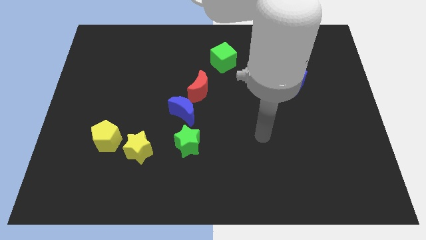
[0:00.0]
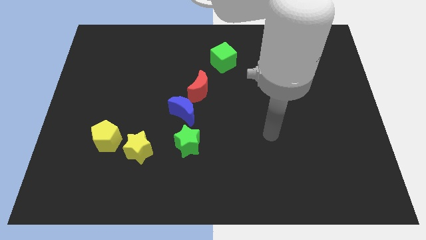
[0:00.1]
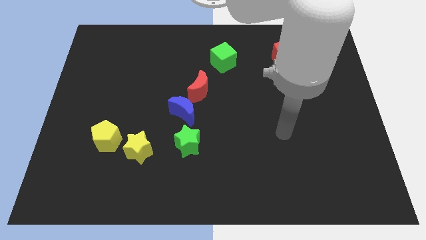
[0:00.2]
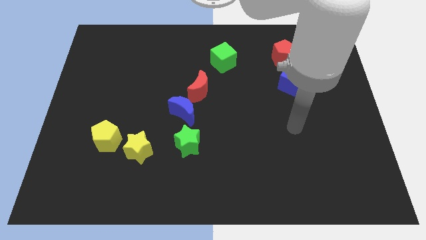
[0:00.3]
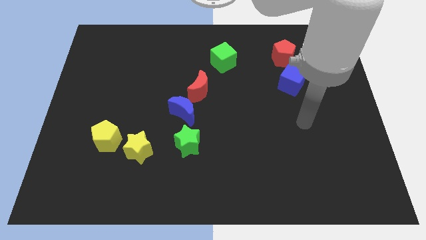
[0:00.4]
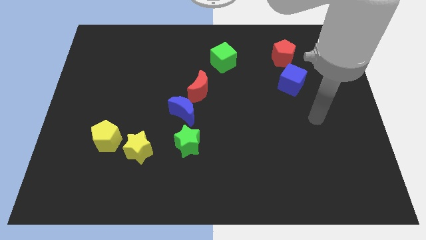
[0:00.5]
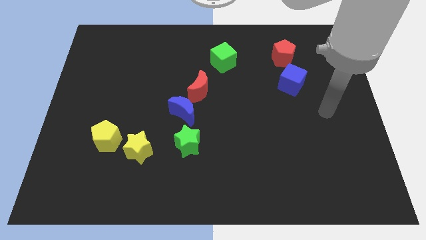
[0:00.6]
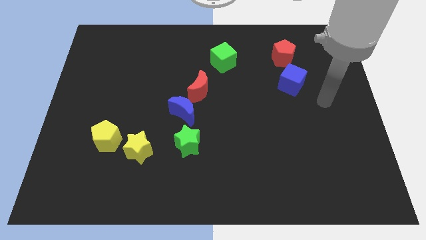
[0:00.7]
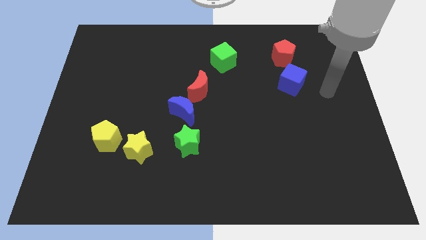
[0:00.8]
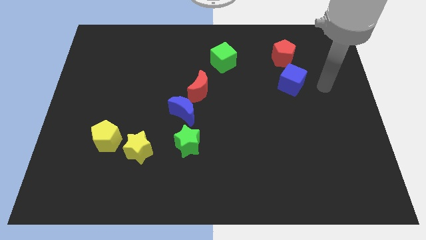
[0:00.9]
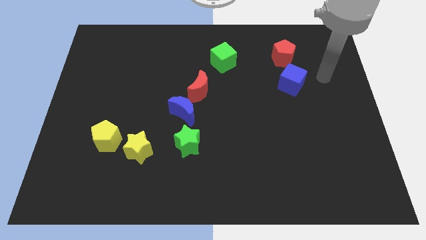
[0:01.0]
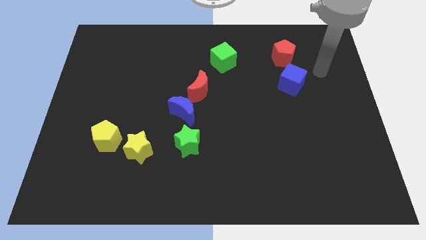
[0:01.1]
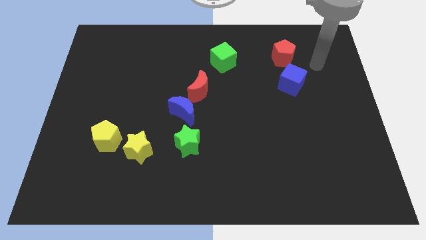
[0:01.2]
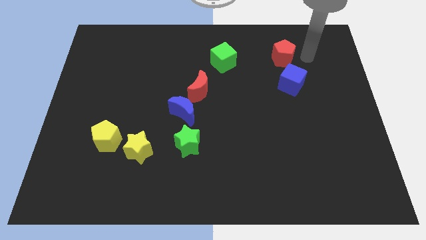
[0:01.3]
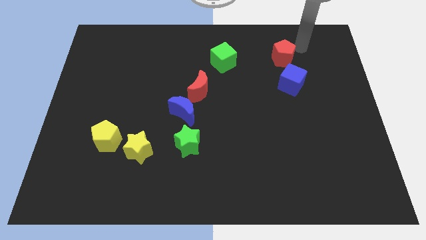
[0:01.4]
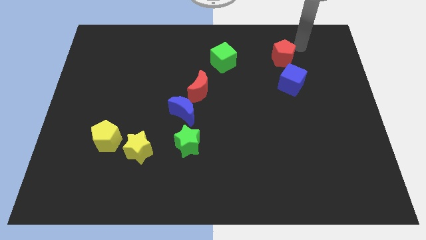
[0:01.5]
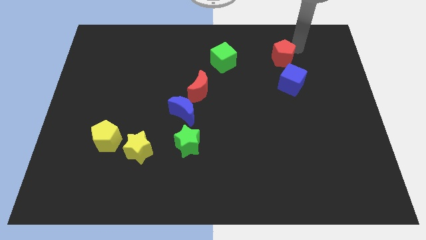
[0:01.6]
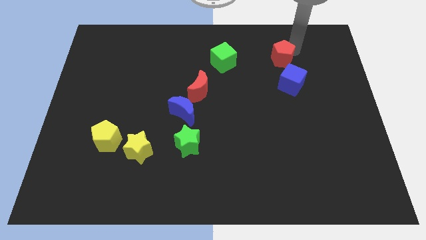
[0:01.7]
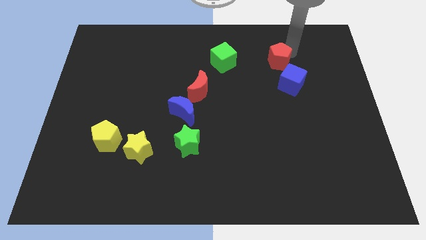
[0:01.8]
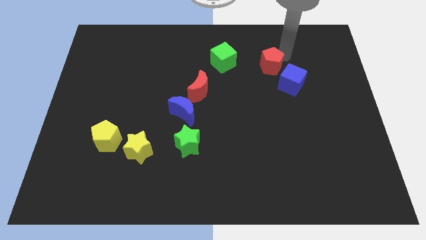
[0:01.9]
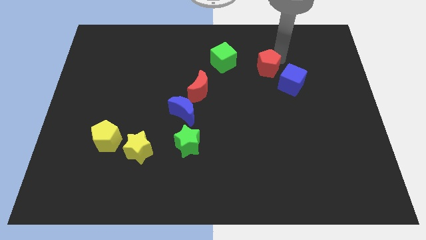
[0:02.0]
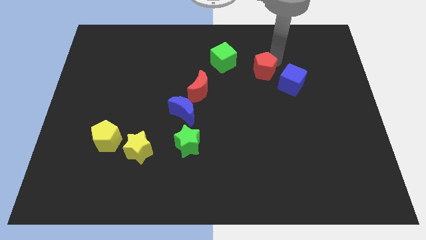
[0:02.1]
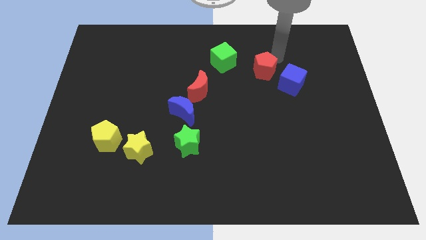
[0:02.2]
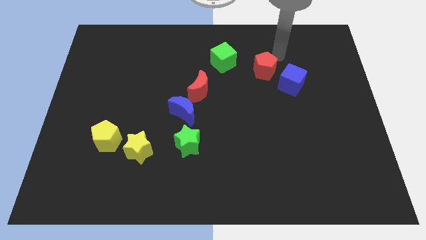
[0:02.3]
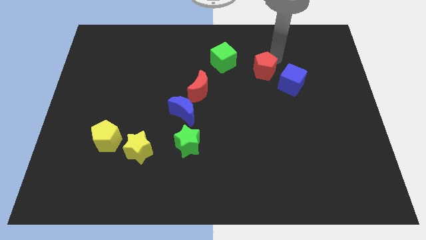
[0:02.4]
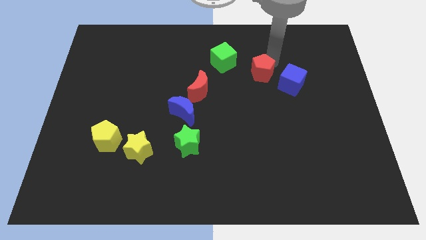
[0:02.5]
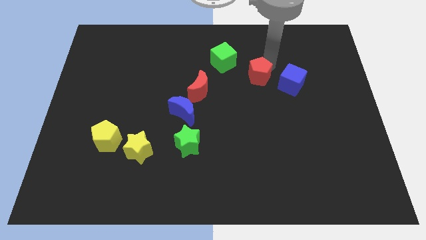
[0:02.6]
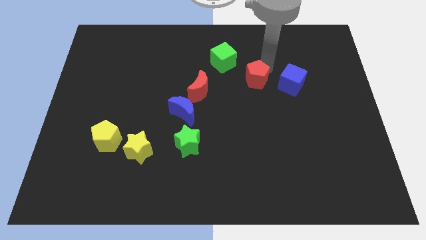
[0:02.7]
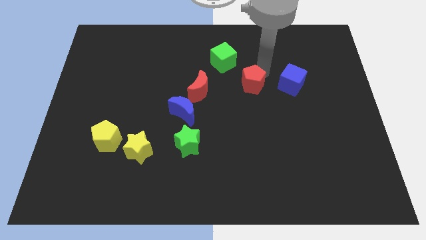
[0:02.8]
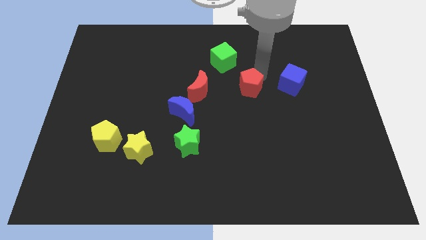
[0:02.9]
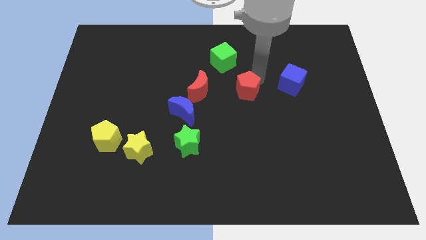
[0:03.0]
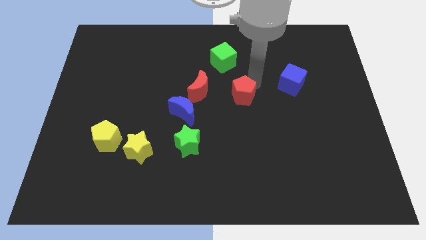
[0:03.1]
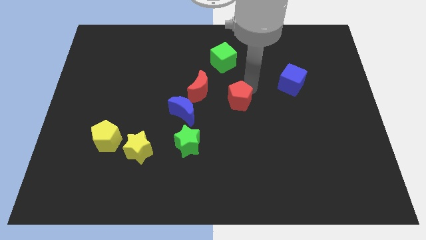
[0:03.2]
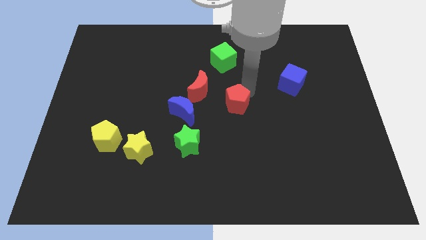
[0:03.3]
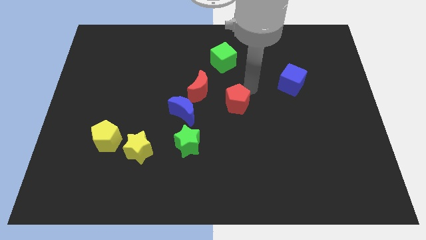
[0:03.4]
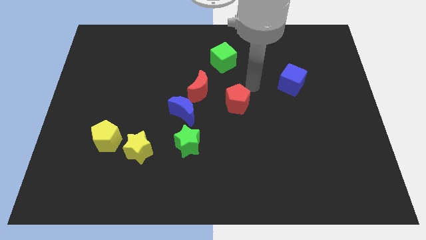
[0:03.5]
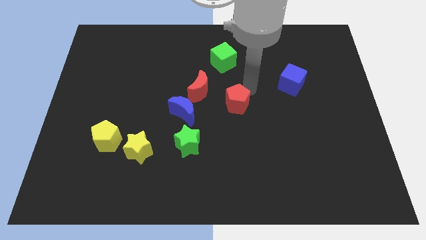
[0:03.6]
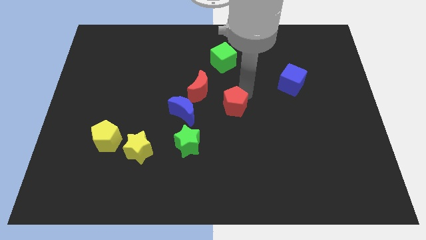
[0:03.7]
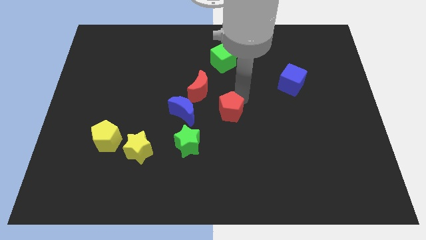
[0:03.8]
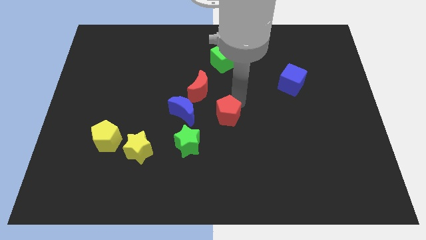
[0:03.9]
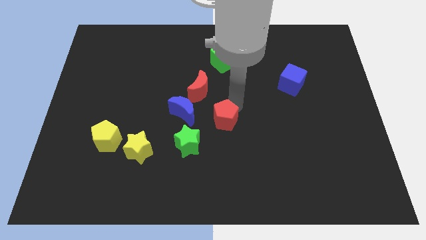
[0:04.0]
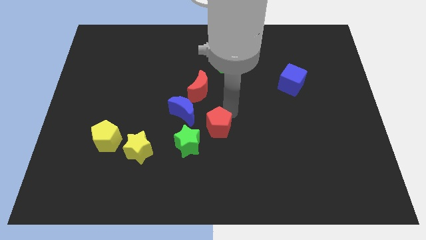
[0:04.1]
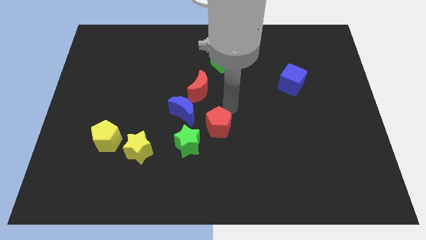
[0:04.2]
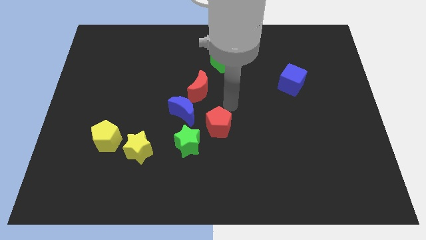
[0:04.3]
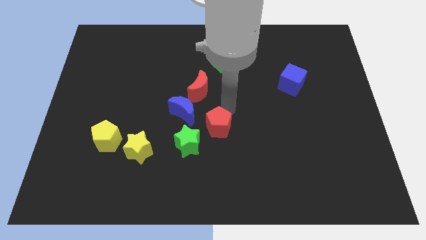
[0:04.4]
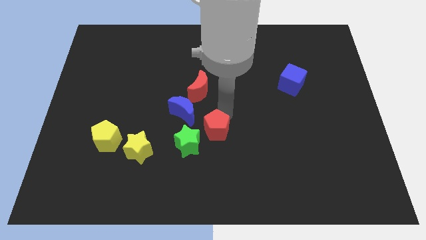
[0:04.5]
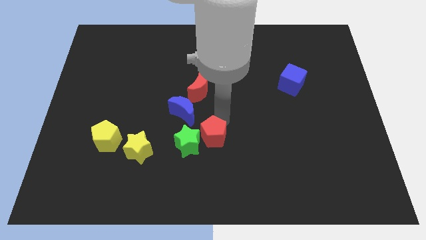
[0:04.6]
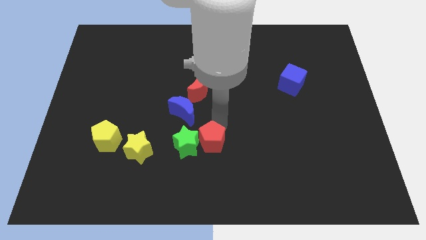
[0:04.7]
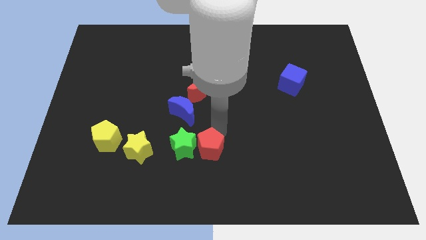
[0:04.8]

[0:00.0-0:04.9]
push the red pentagon right of the yellow star

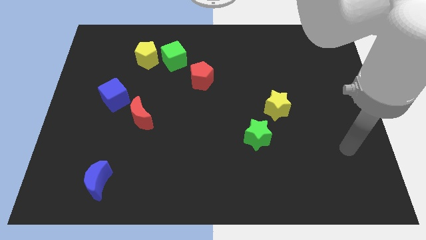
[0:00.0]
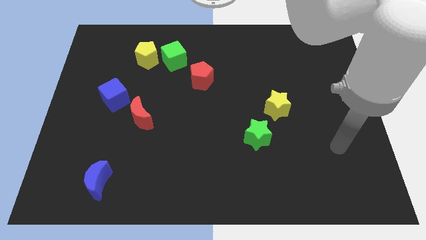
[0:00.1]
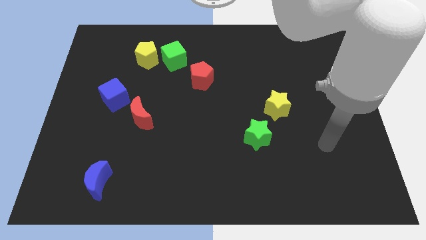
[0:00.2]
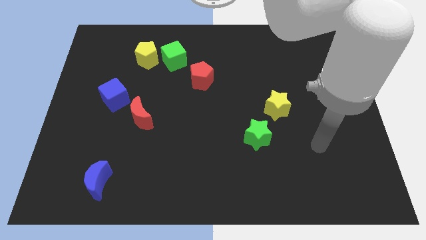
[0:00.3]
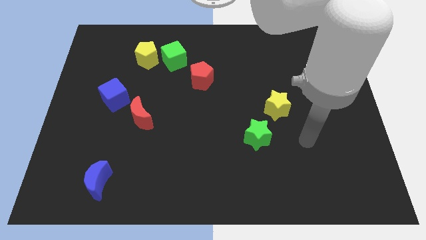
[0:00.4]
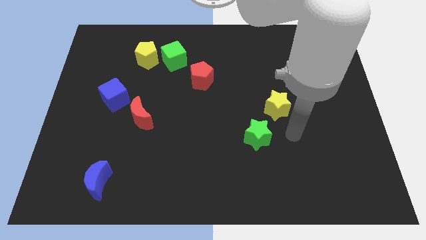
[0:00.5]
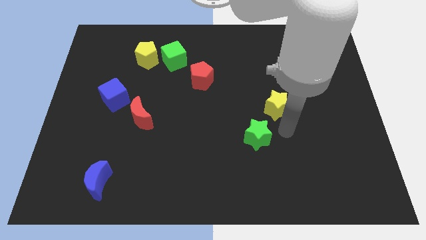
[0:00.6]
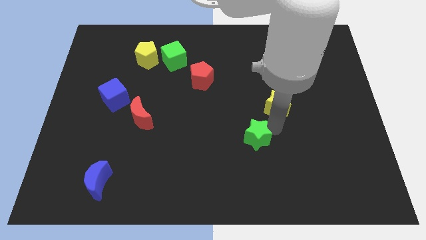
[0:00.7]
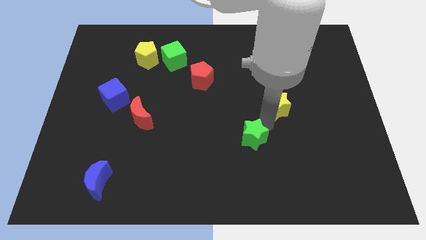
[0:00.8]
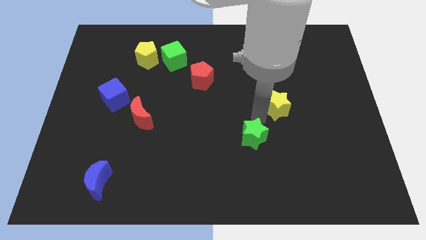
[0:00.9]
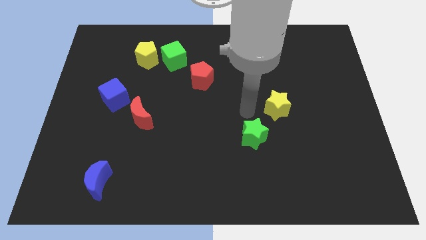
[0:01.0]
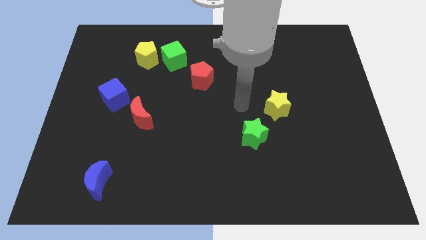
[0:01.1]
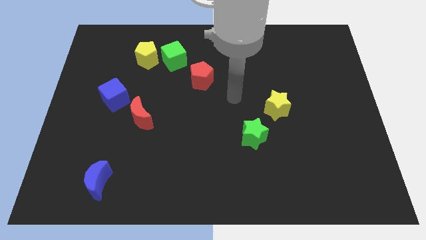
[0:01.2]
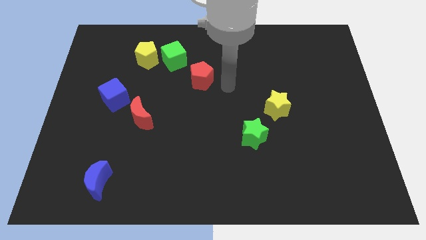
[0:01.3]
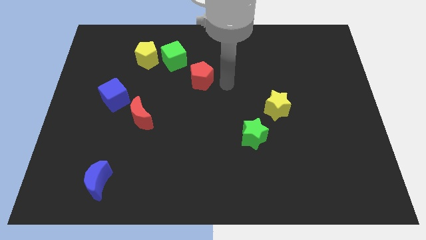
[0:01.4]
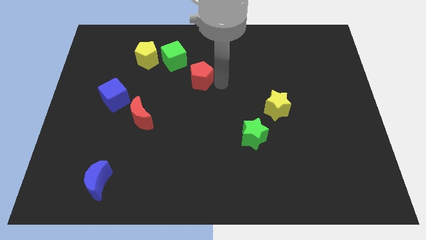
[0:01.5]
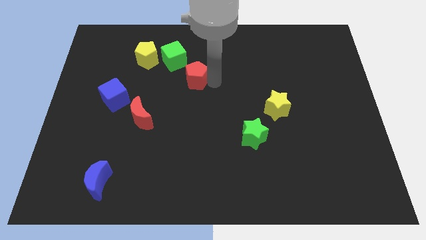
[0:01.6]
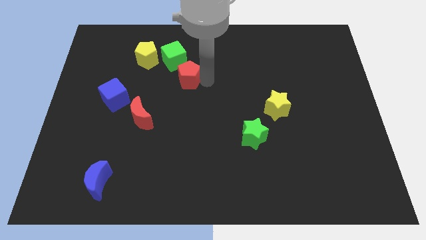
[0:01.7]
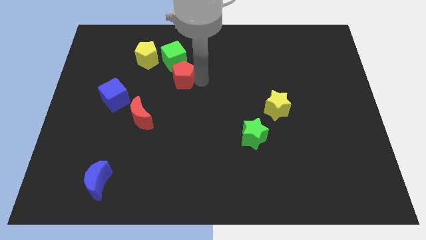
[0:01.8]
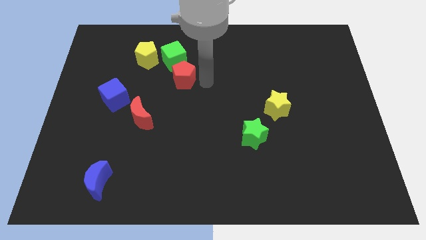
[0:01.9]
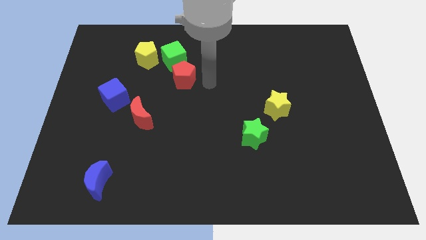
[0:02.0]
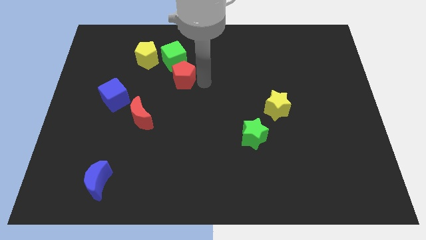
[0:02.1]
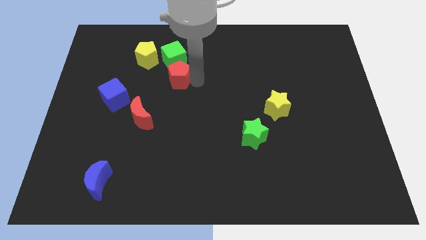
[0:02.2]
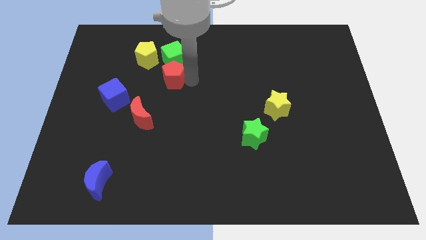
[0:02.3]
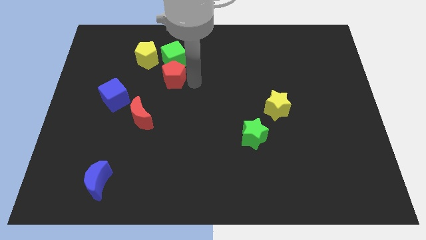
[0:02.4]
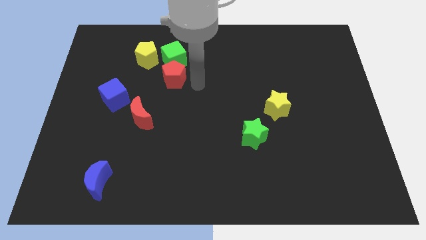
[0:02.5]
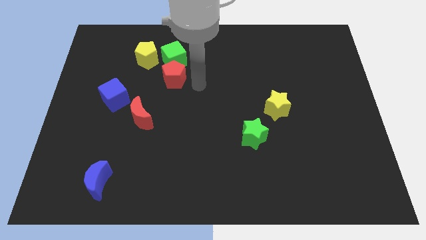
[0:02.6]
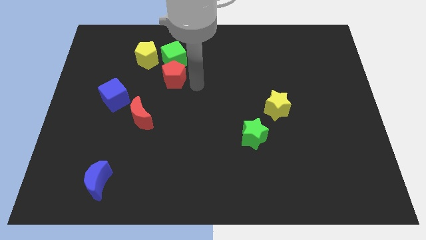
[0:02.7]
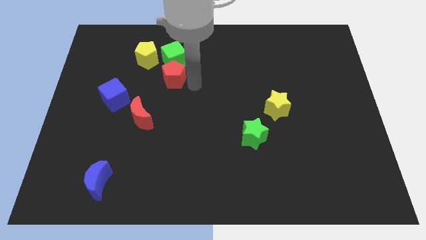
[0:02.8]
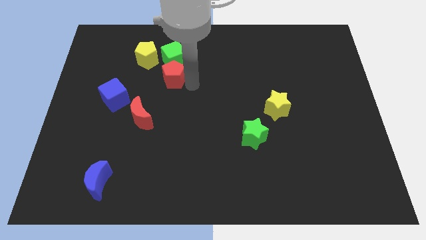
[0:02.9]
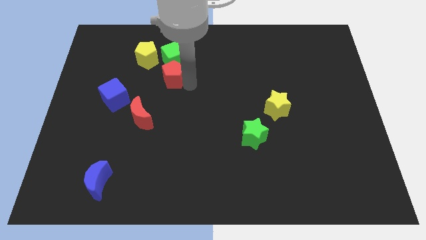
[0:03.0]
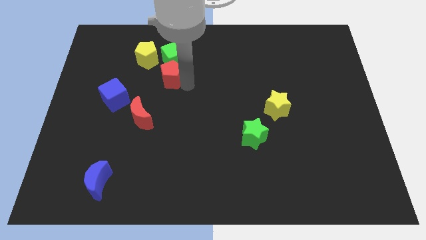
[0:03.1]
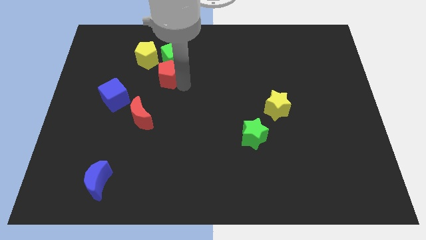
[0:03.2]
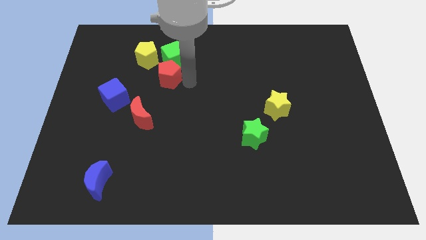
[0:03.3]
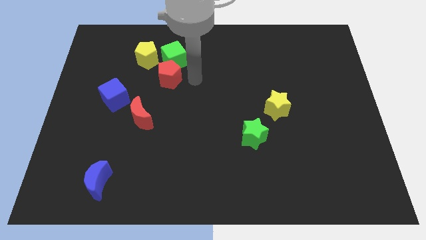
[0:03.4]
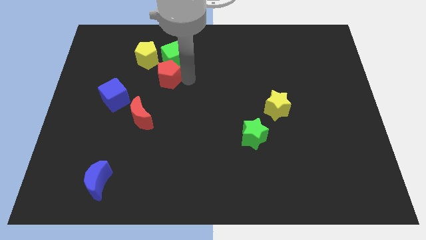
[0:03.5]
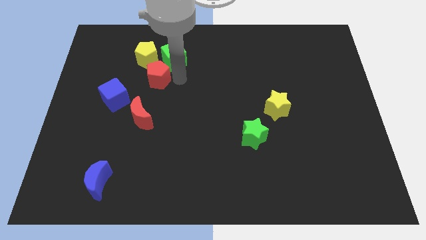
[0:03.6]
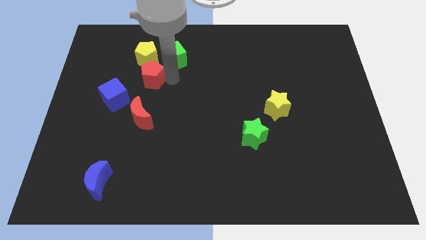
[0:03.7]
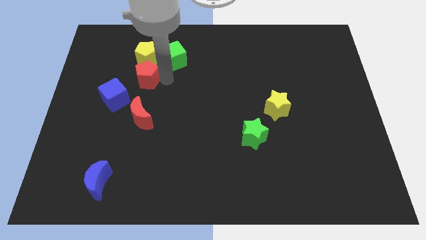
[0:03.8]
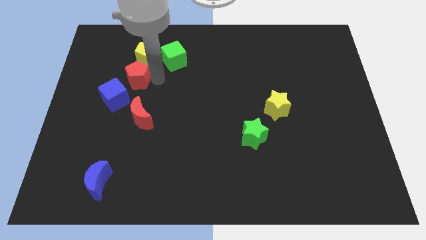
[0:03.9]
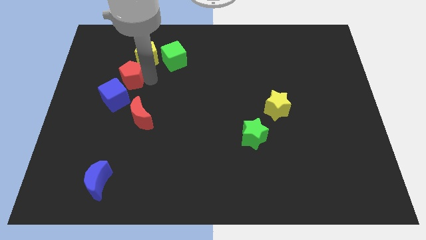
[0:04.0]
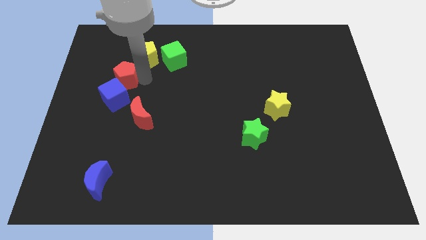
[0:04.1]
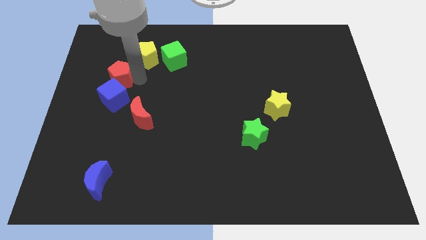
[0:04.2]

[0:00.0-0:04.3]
move the red pentagon to the top left of the blue cube
